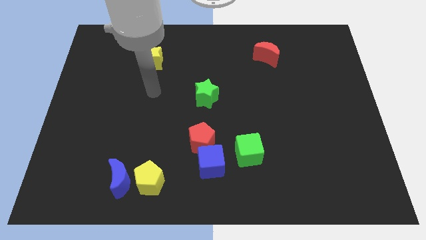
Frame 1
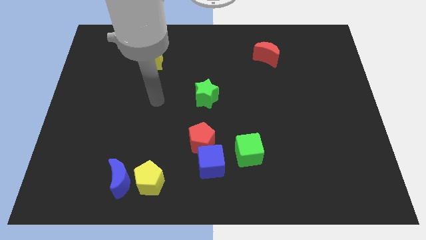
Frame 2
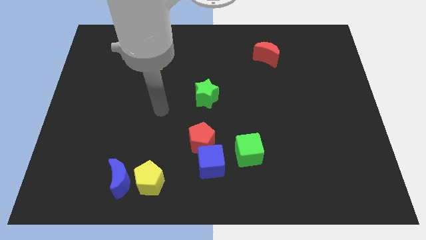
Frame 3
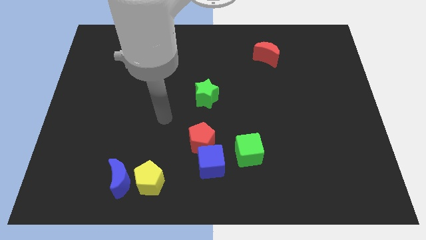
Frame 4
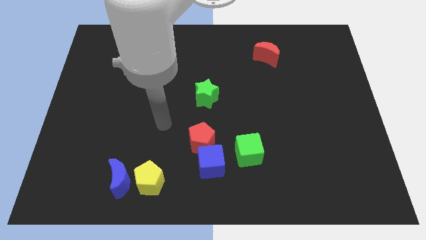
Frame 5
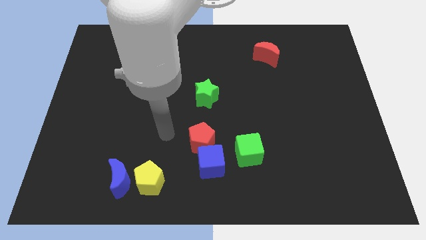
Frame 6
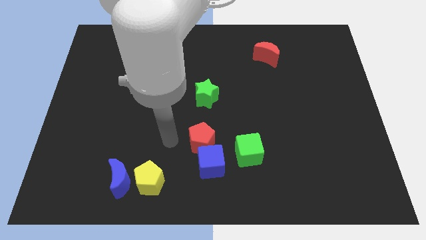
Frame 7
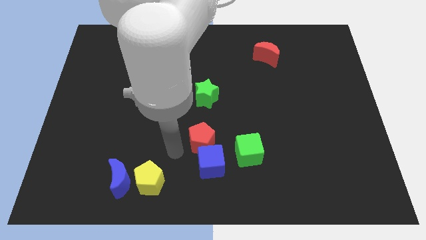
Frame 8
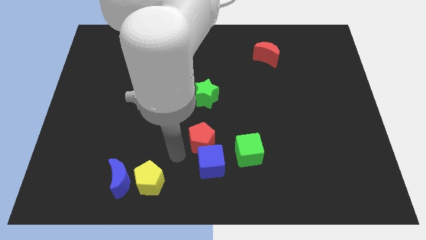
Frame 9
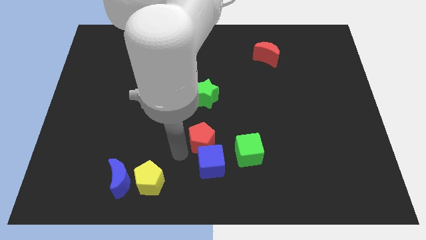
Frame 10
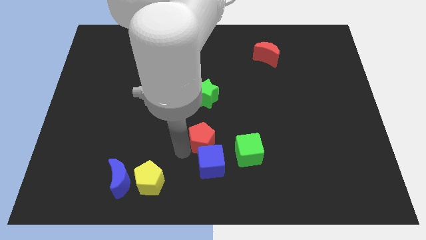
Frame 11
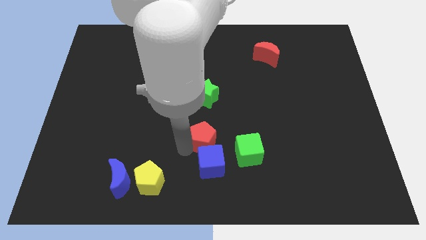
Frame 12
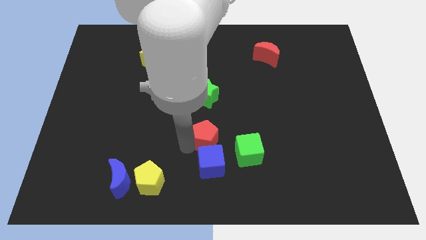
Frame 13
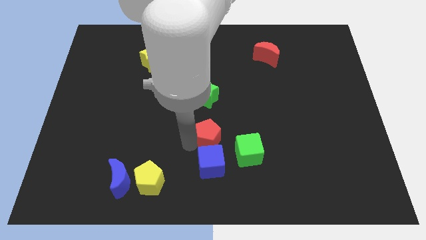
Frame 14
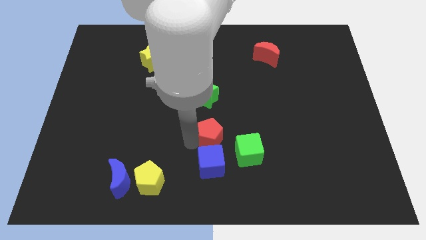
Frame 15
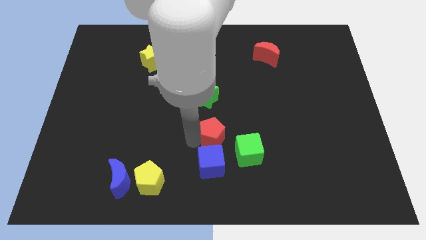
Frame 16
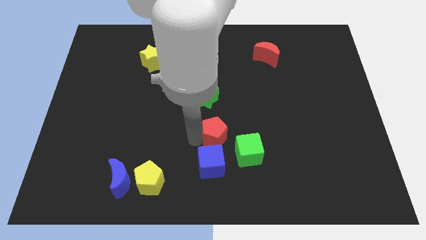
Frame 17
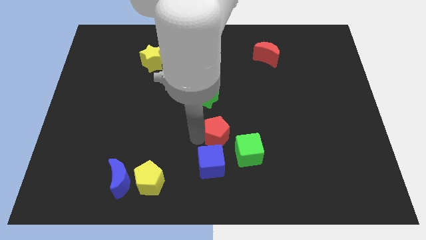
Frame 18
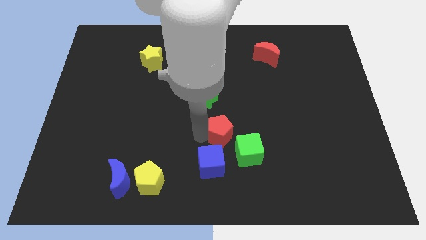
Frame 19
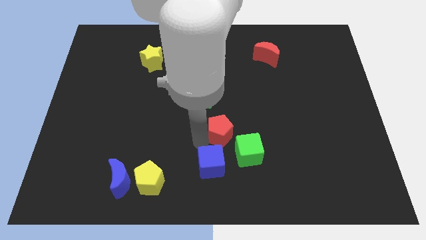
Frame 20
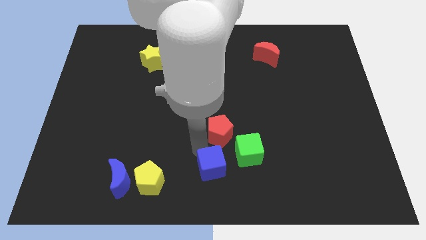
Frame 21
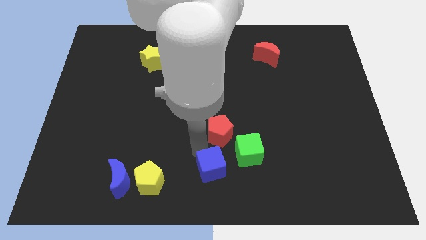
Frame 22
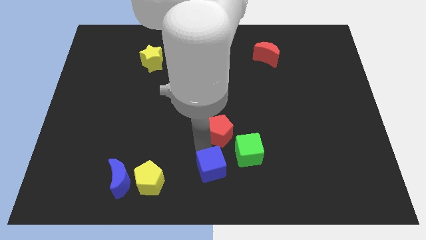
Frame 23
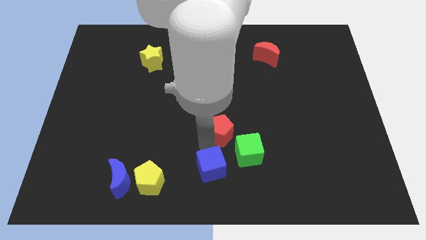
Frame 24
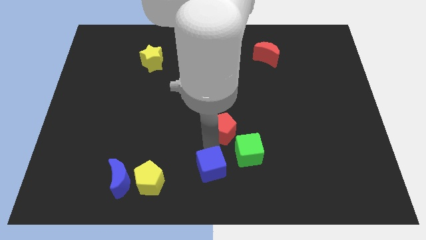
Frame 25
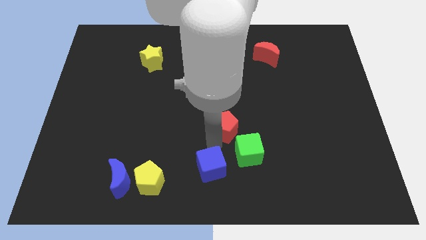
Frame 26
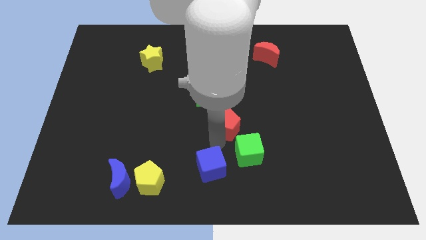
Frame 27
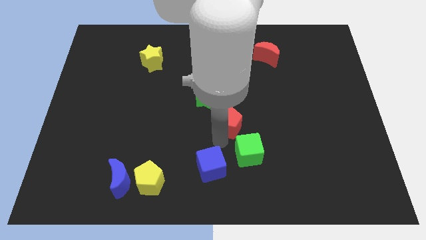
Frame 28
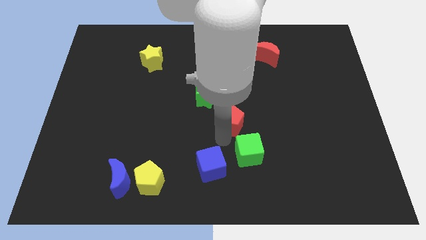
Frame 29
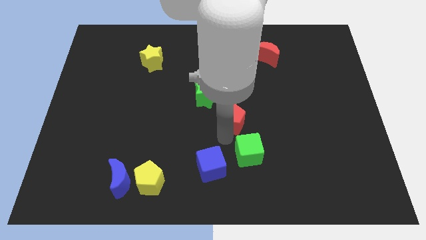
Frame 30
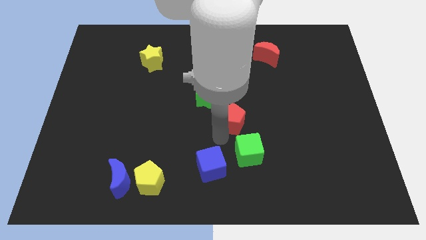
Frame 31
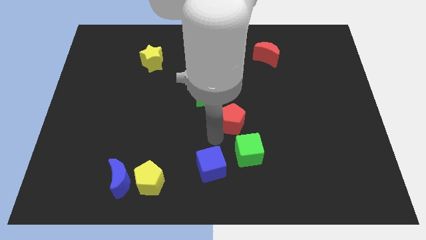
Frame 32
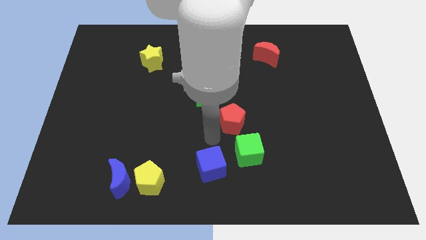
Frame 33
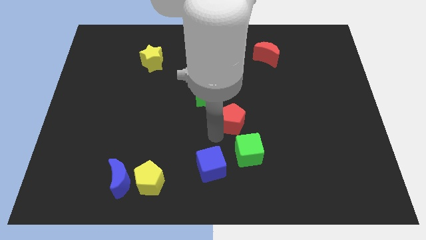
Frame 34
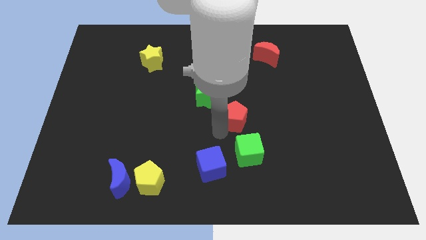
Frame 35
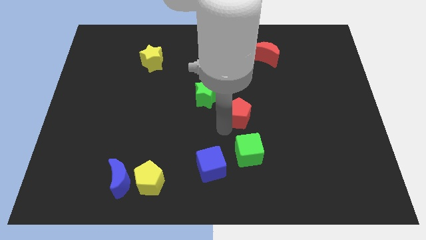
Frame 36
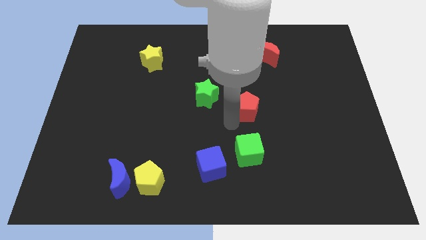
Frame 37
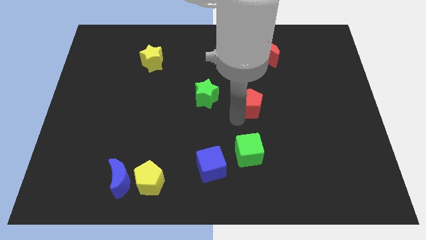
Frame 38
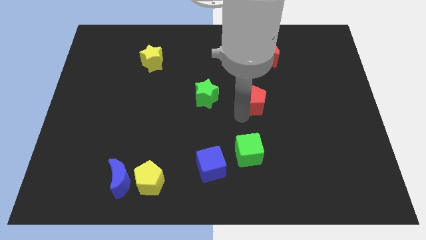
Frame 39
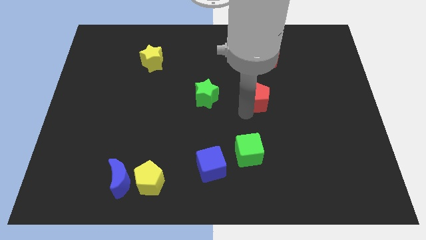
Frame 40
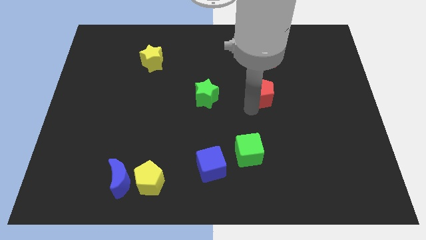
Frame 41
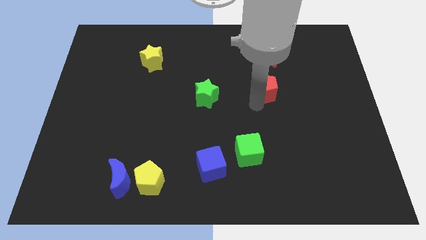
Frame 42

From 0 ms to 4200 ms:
push the red pentagon upwards and right

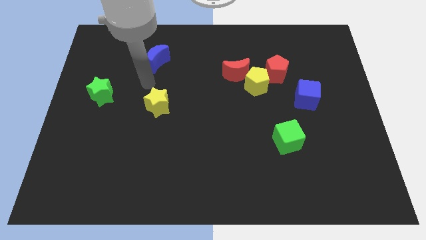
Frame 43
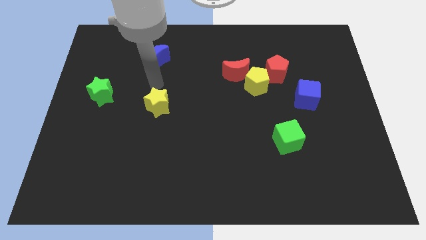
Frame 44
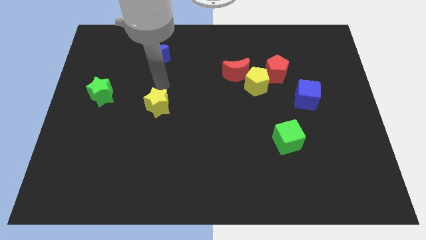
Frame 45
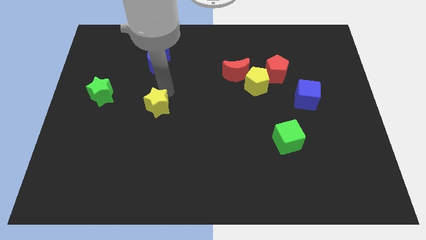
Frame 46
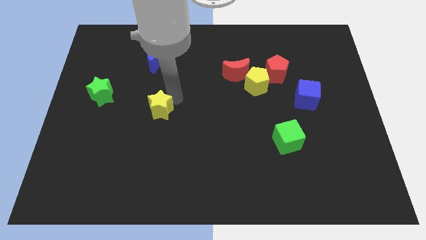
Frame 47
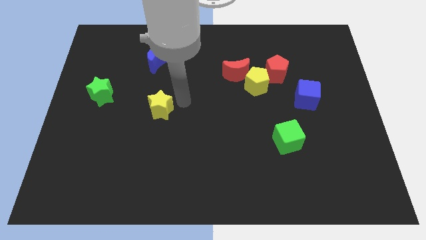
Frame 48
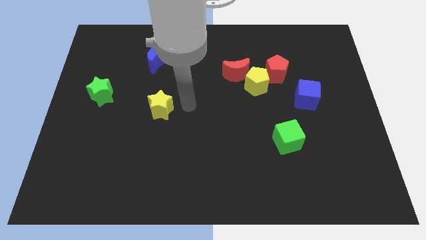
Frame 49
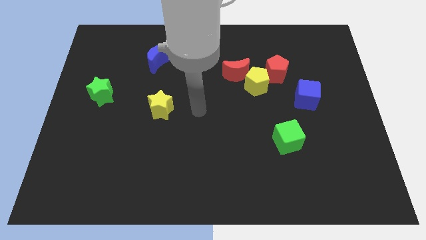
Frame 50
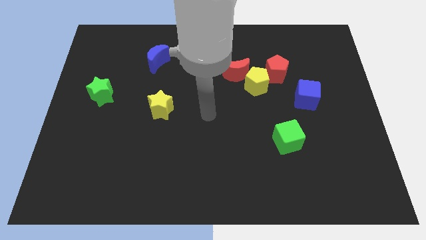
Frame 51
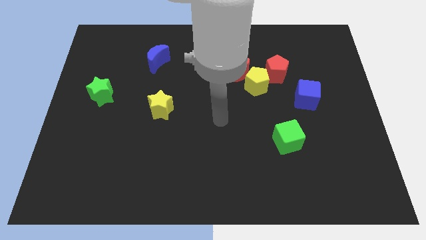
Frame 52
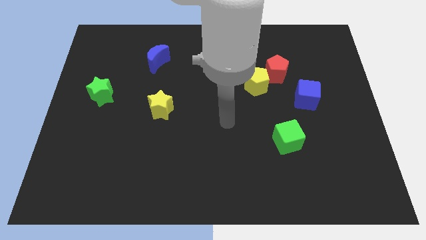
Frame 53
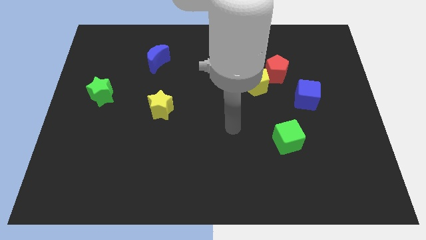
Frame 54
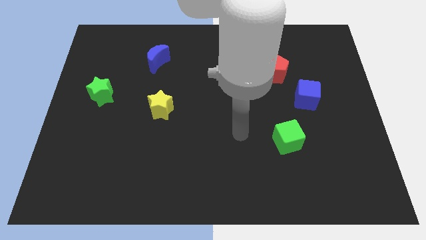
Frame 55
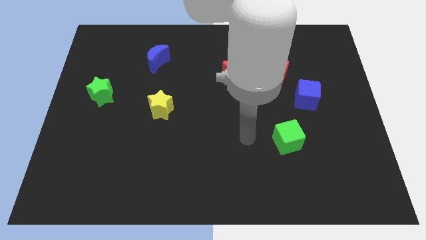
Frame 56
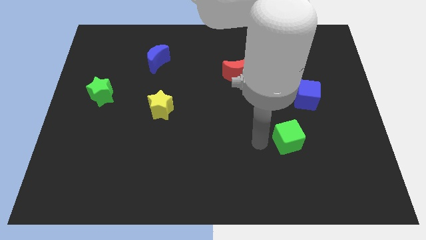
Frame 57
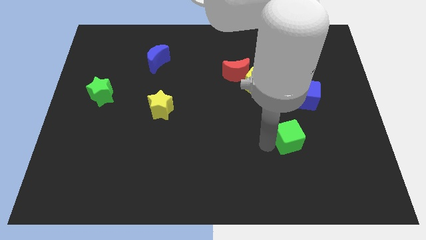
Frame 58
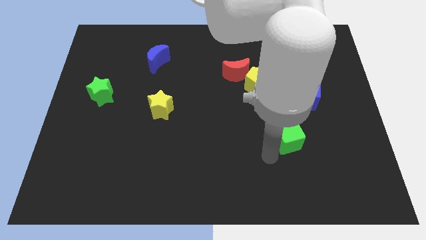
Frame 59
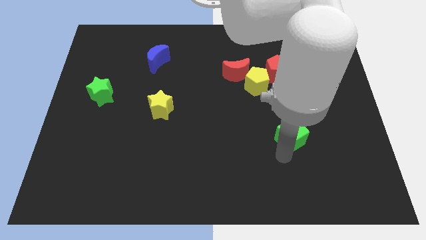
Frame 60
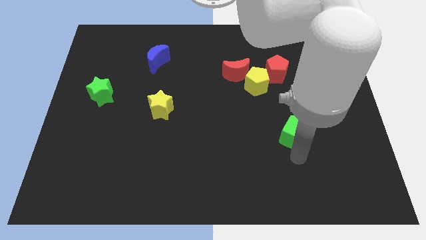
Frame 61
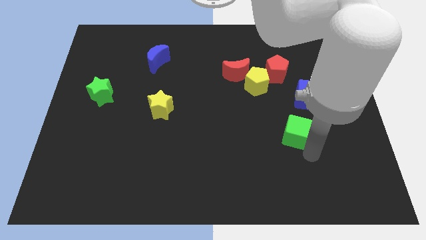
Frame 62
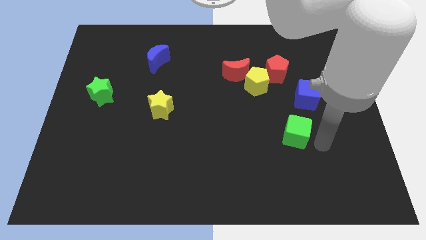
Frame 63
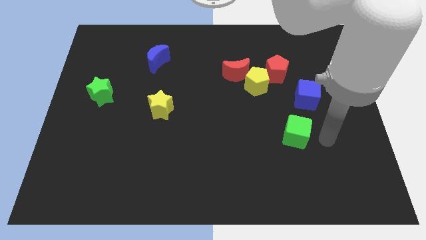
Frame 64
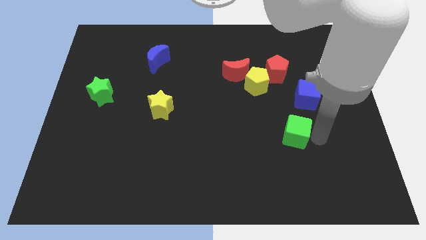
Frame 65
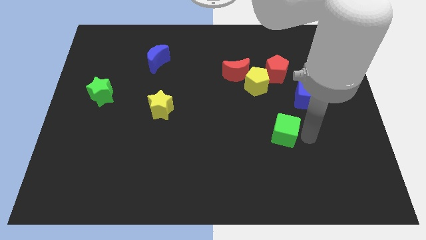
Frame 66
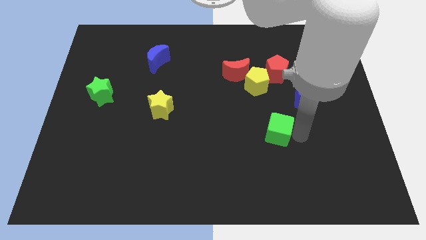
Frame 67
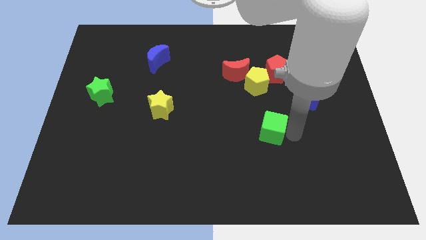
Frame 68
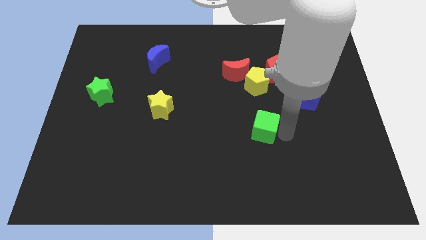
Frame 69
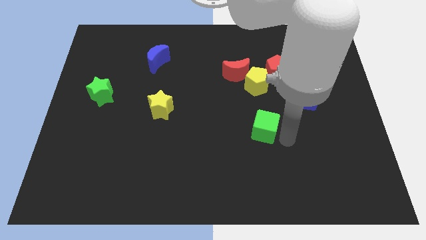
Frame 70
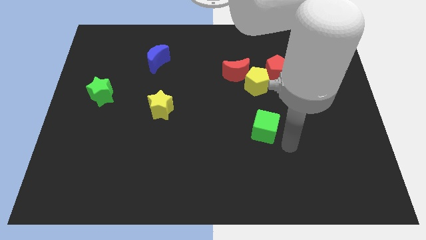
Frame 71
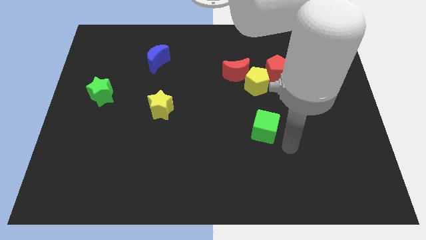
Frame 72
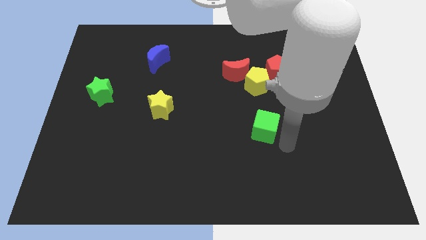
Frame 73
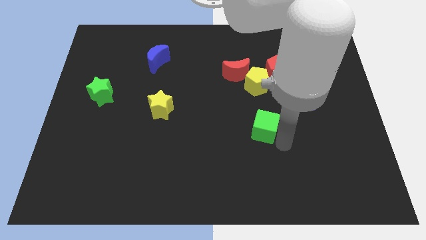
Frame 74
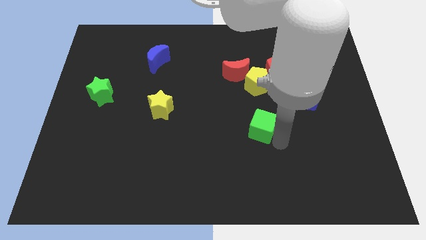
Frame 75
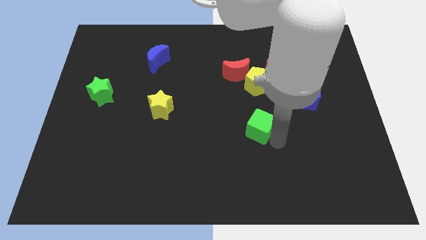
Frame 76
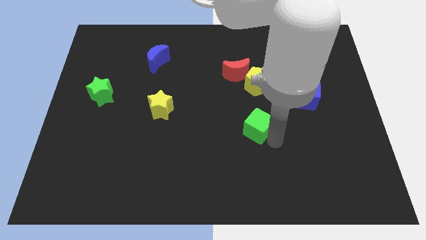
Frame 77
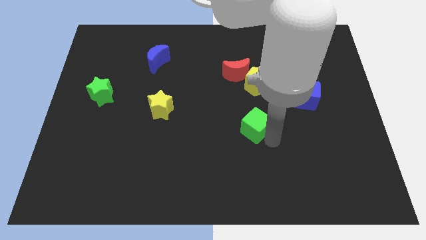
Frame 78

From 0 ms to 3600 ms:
push the green cube slightly diagonally upwards and left

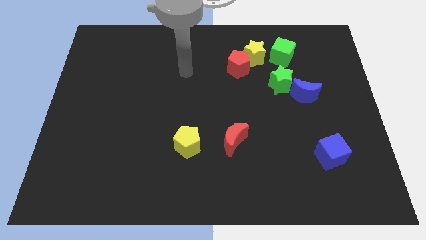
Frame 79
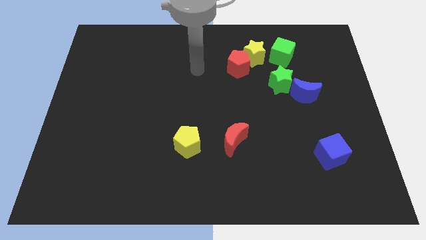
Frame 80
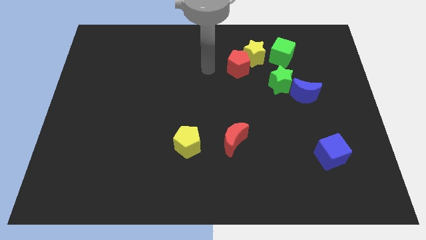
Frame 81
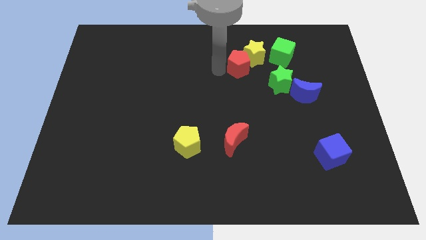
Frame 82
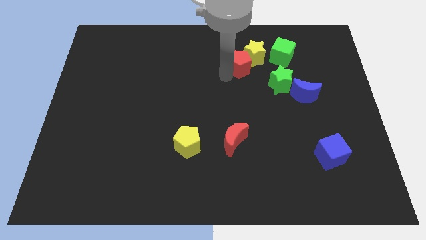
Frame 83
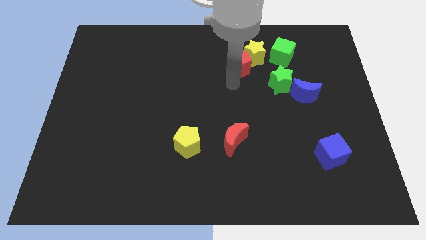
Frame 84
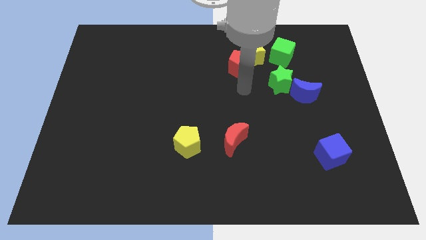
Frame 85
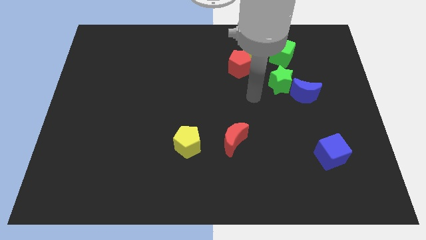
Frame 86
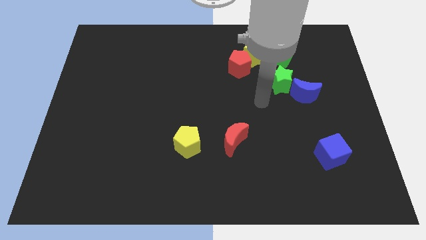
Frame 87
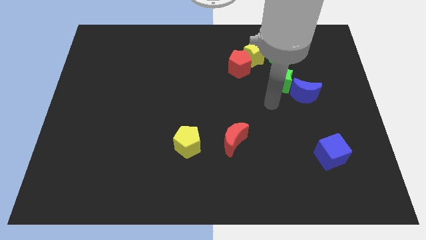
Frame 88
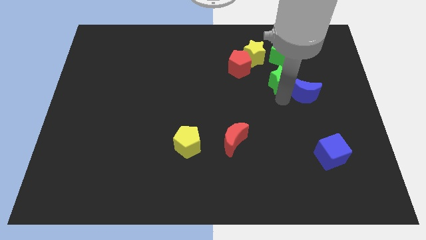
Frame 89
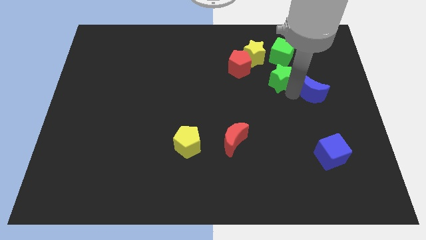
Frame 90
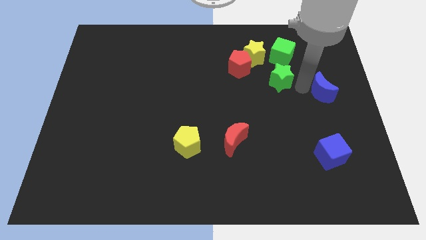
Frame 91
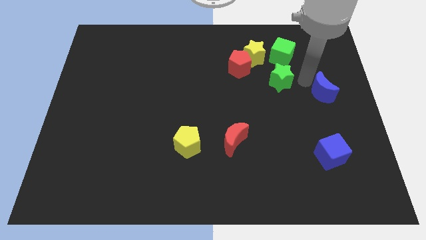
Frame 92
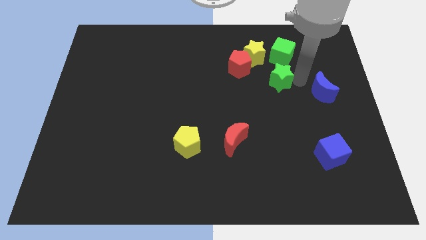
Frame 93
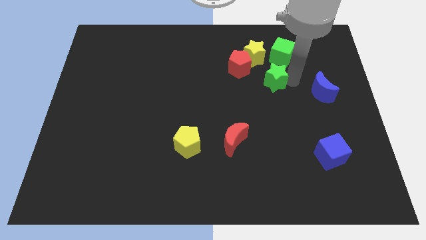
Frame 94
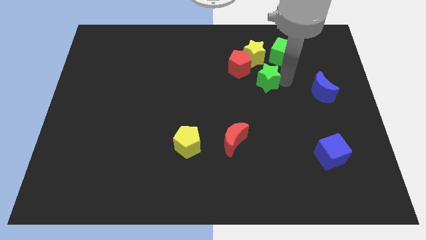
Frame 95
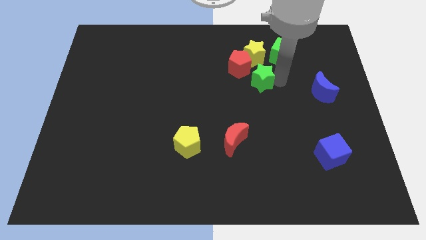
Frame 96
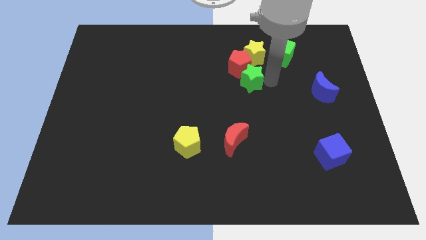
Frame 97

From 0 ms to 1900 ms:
slightly push the green star left
